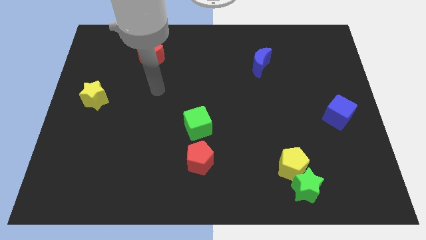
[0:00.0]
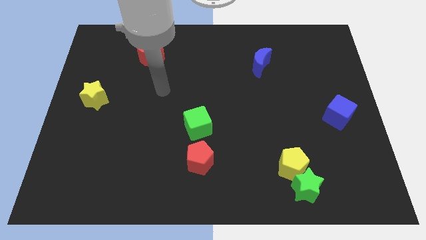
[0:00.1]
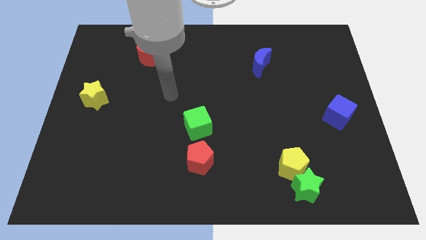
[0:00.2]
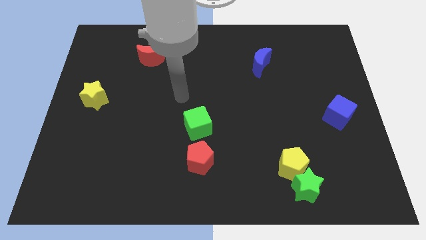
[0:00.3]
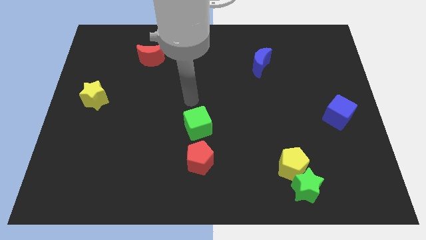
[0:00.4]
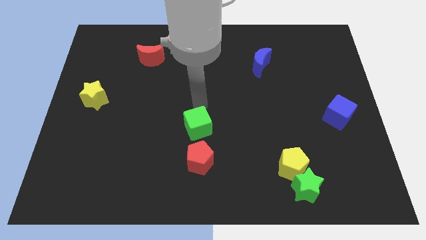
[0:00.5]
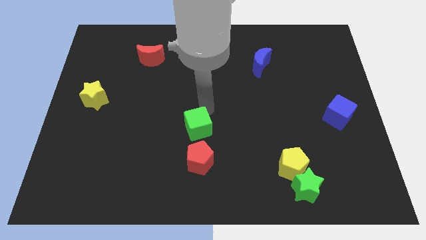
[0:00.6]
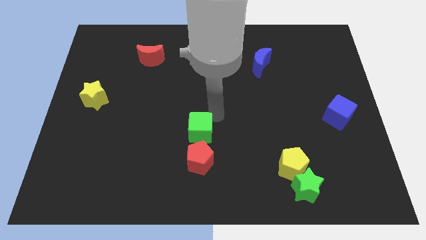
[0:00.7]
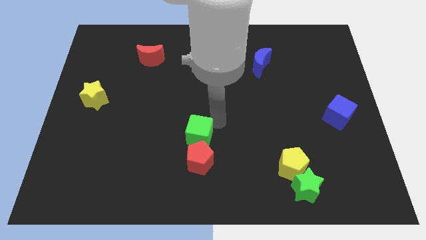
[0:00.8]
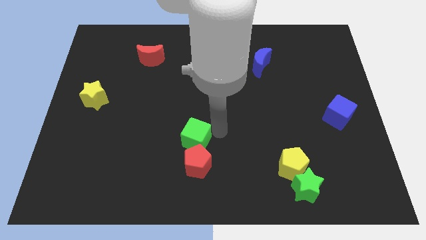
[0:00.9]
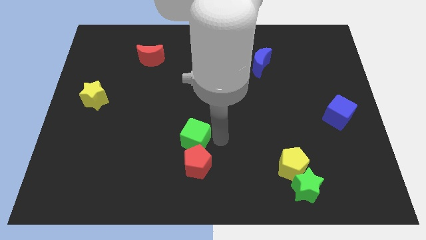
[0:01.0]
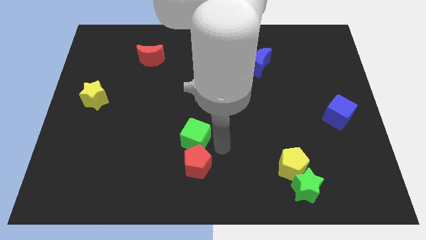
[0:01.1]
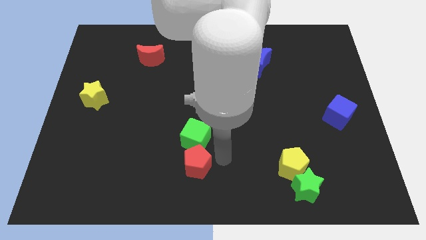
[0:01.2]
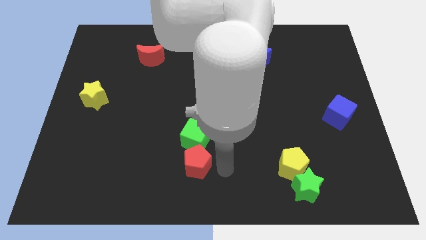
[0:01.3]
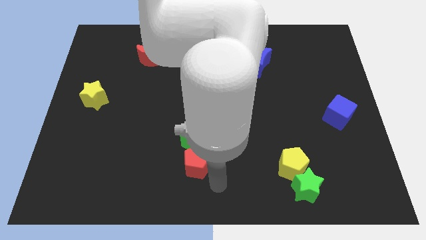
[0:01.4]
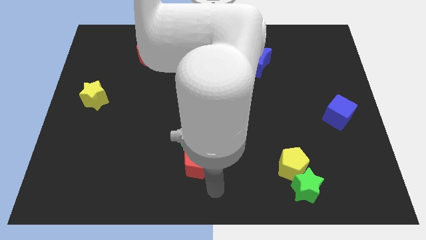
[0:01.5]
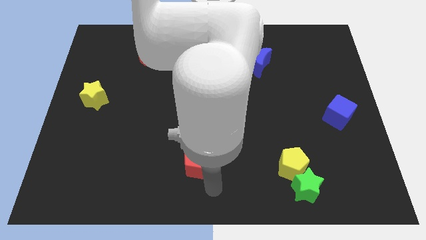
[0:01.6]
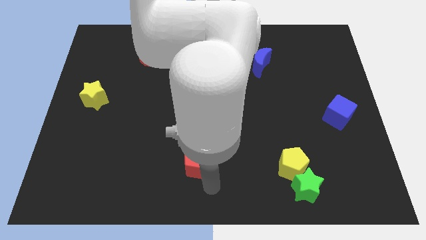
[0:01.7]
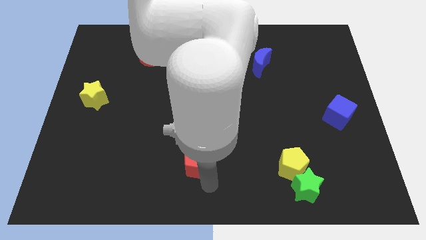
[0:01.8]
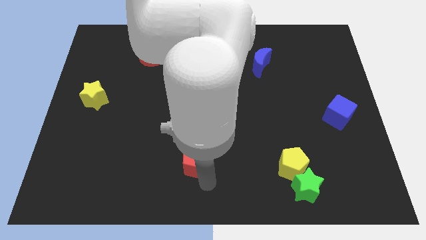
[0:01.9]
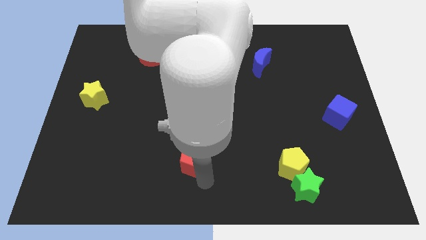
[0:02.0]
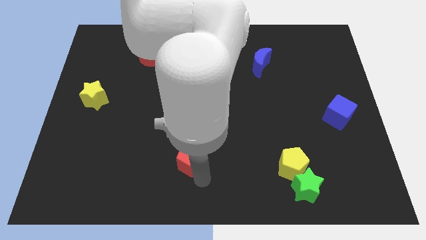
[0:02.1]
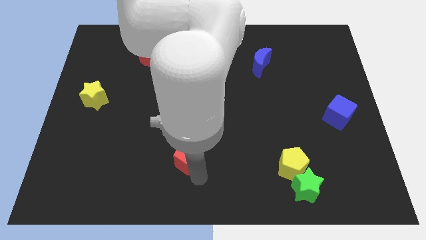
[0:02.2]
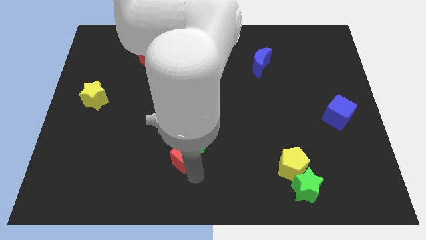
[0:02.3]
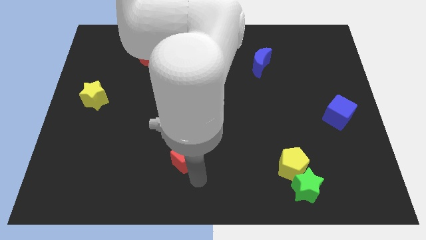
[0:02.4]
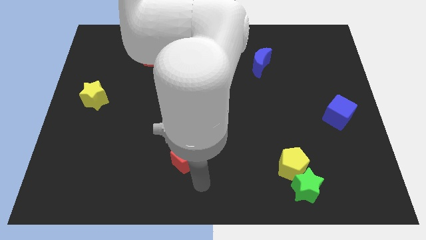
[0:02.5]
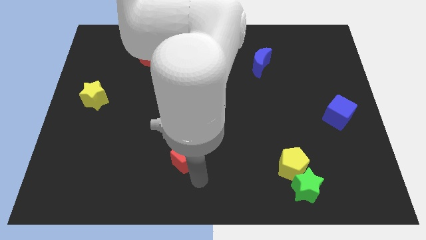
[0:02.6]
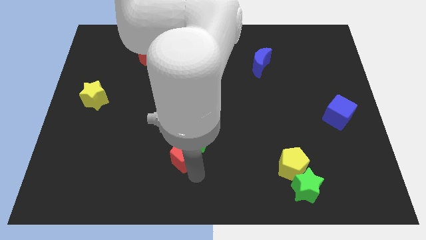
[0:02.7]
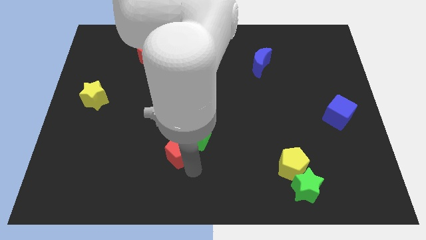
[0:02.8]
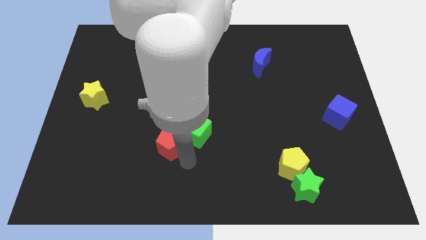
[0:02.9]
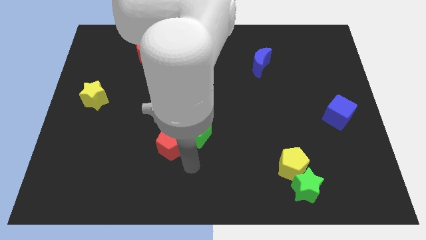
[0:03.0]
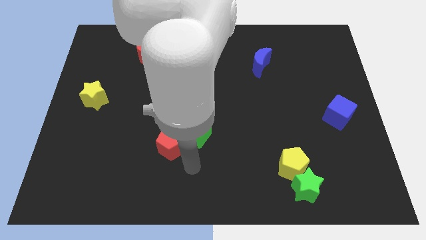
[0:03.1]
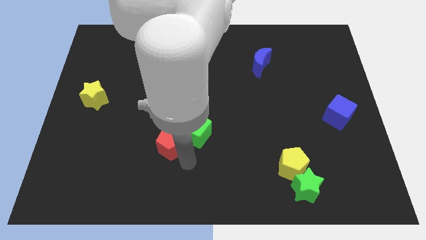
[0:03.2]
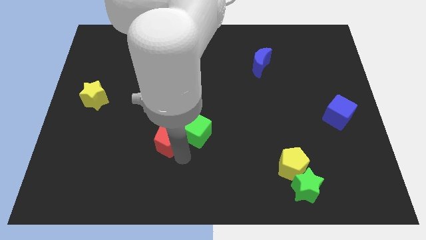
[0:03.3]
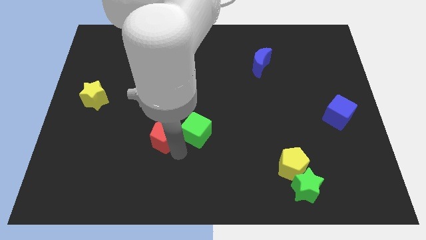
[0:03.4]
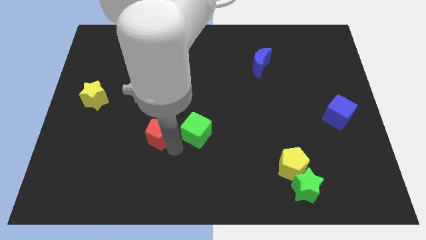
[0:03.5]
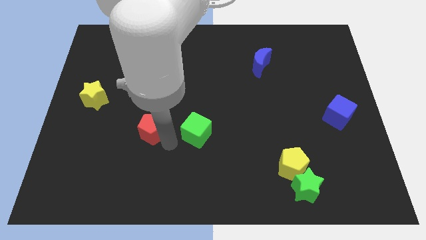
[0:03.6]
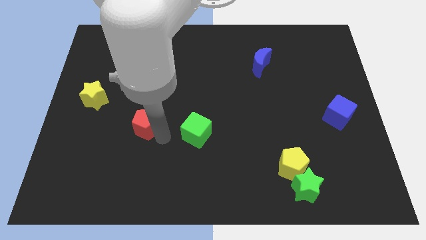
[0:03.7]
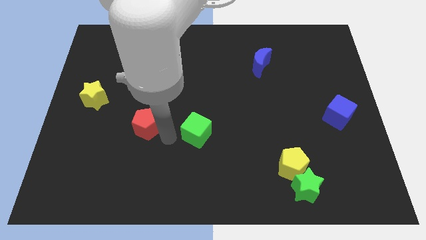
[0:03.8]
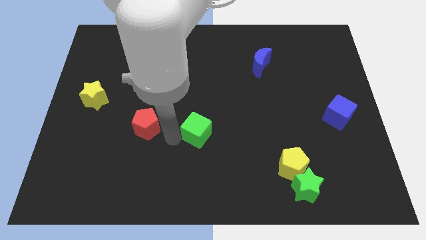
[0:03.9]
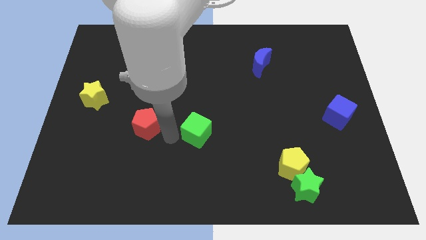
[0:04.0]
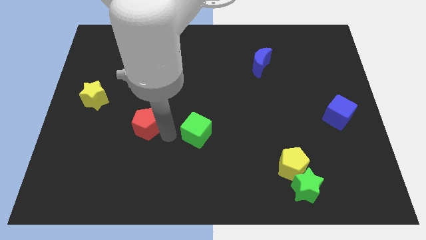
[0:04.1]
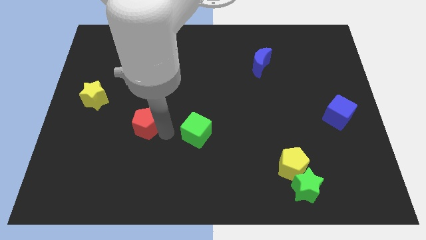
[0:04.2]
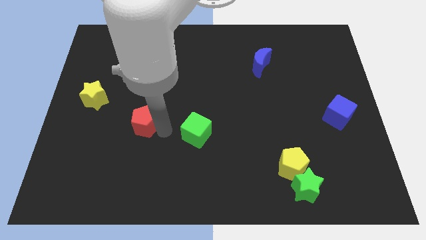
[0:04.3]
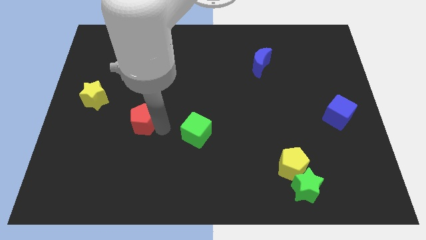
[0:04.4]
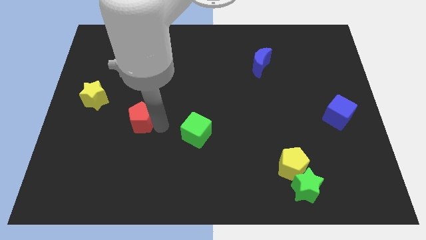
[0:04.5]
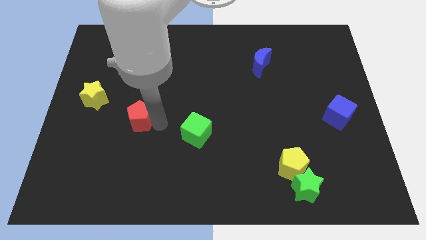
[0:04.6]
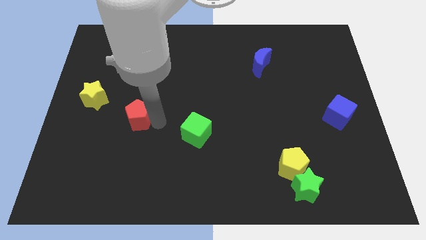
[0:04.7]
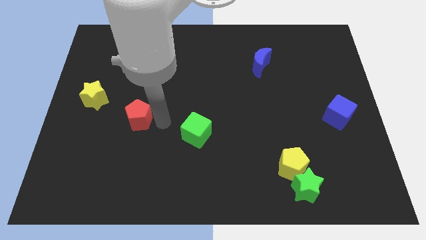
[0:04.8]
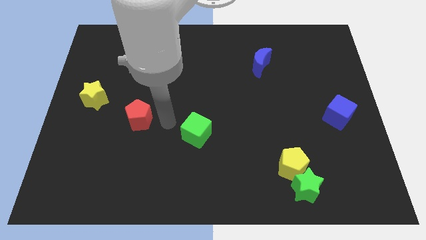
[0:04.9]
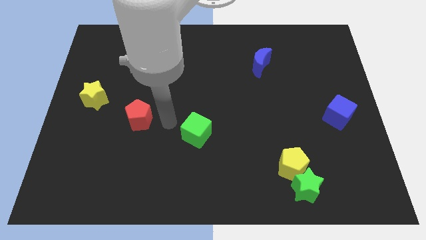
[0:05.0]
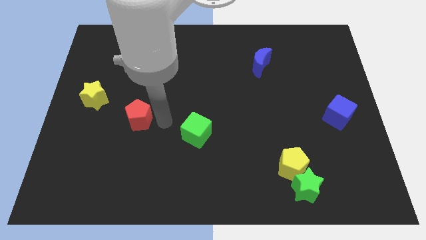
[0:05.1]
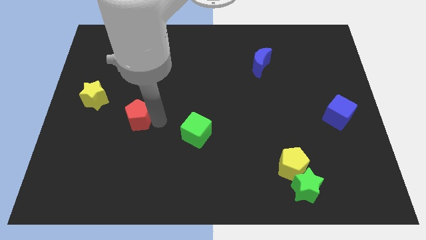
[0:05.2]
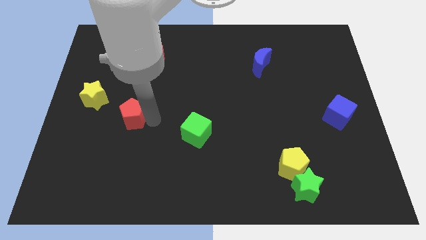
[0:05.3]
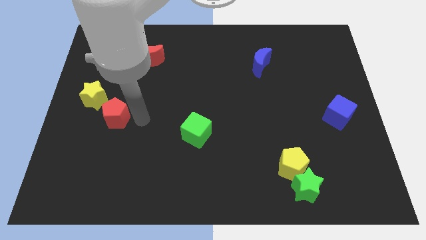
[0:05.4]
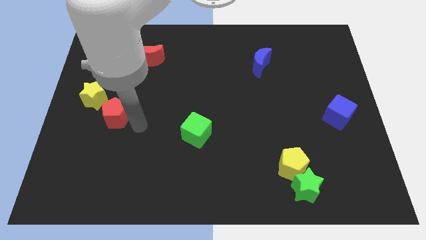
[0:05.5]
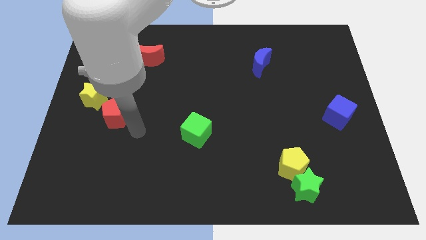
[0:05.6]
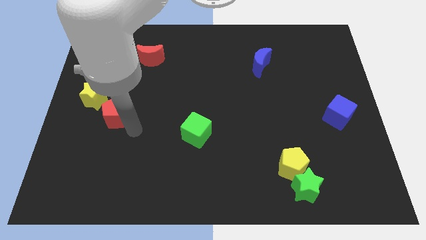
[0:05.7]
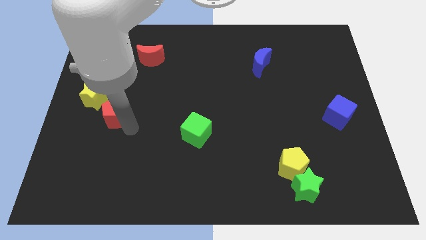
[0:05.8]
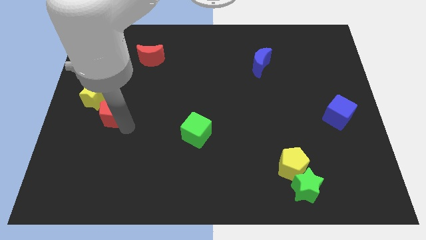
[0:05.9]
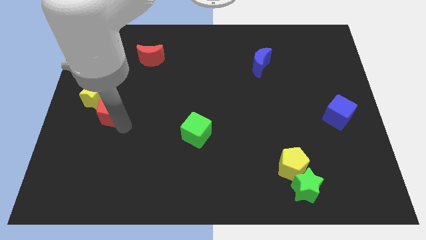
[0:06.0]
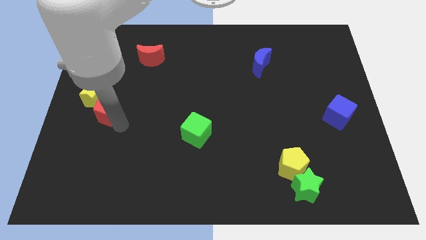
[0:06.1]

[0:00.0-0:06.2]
put the red pentagon next to the yellow star

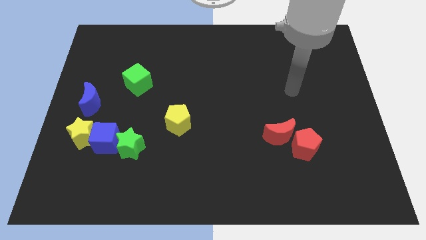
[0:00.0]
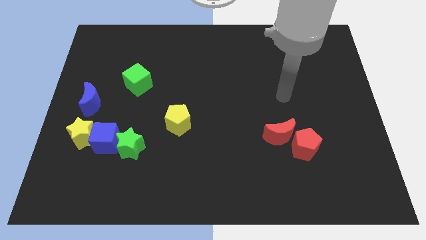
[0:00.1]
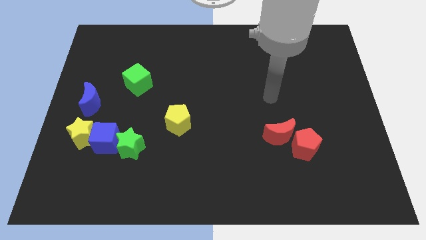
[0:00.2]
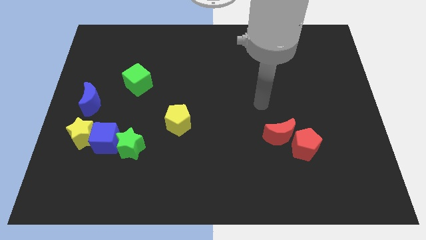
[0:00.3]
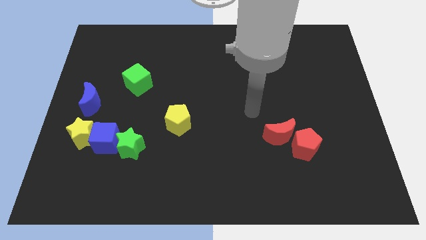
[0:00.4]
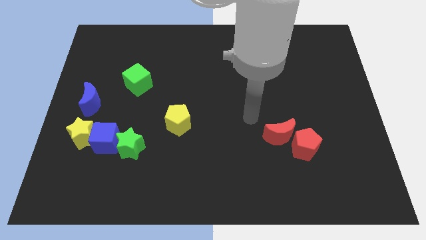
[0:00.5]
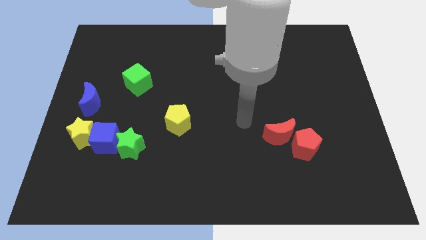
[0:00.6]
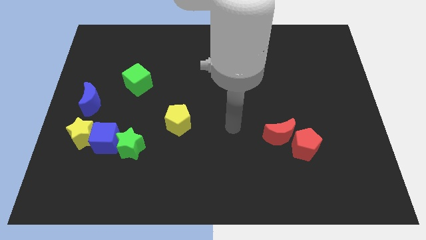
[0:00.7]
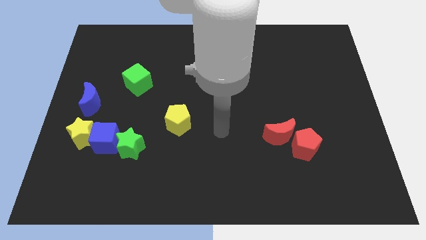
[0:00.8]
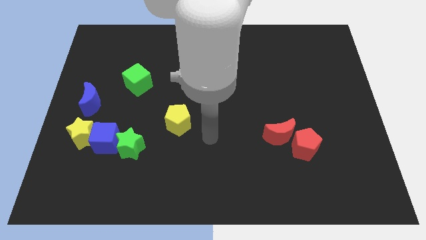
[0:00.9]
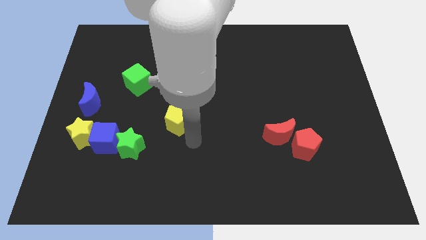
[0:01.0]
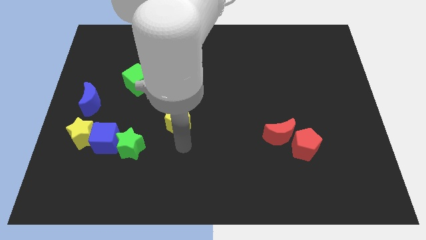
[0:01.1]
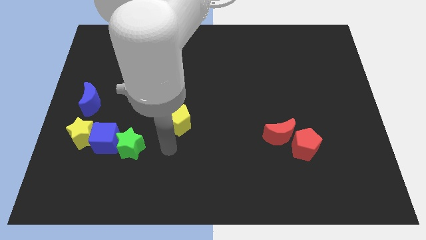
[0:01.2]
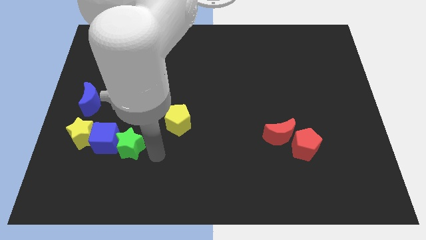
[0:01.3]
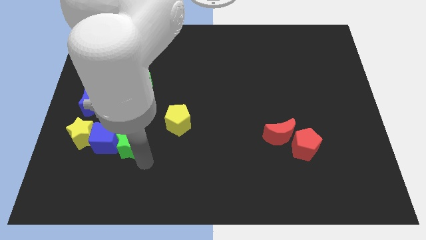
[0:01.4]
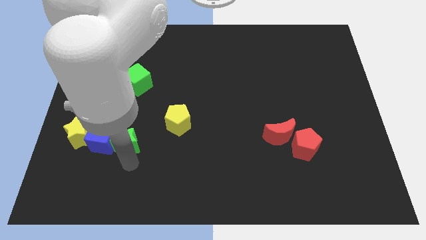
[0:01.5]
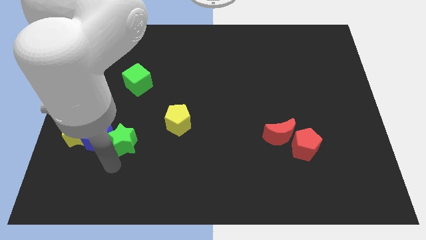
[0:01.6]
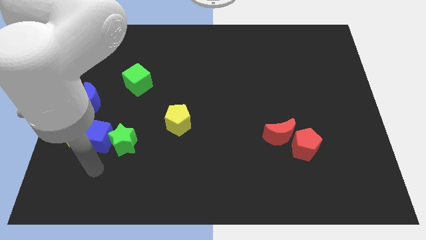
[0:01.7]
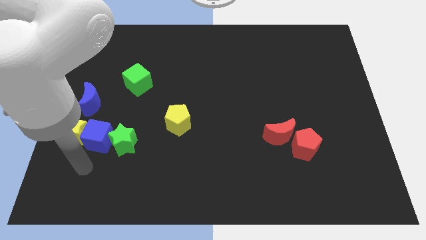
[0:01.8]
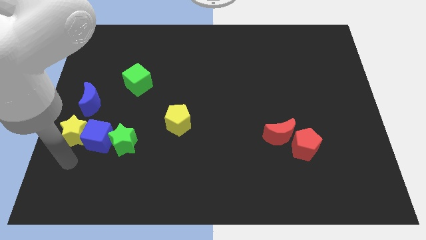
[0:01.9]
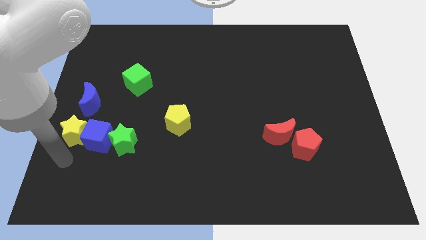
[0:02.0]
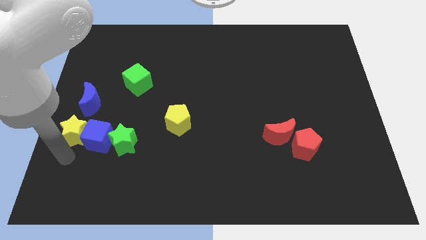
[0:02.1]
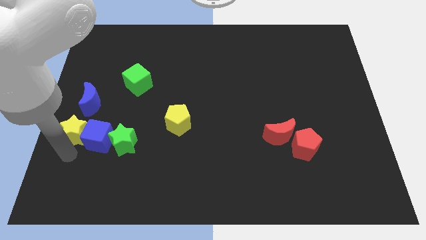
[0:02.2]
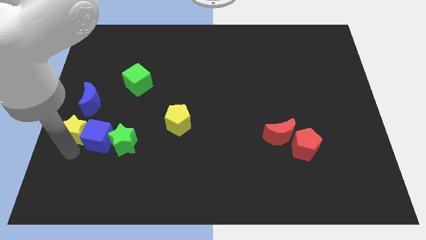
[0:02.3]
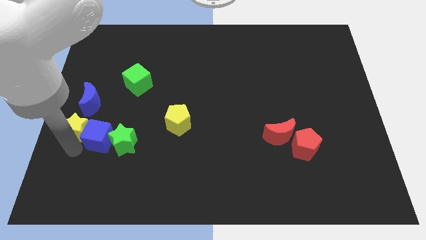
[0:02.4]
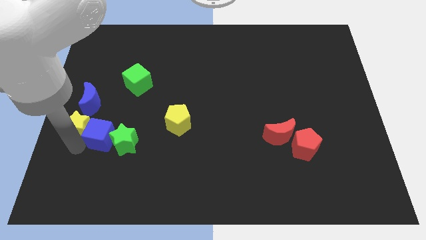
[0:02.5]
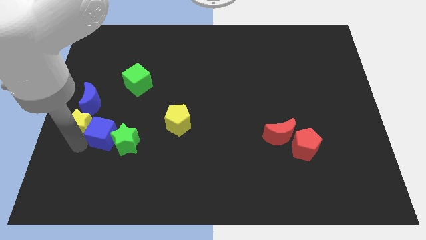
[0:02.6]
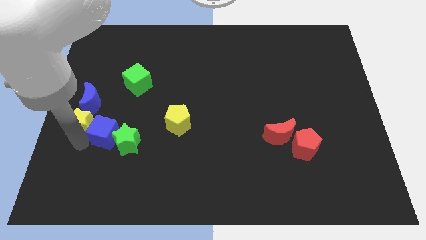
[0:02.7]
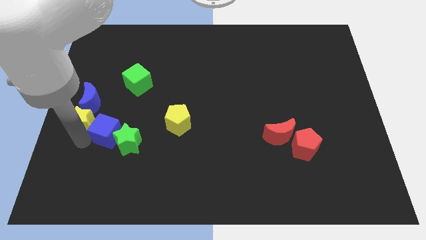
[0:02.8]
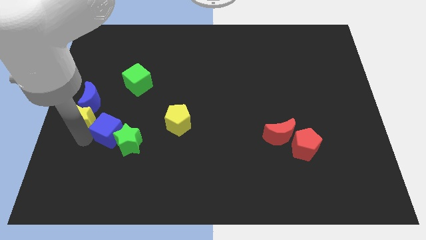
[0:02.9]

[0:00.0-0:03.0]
move the yellow star to the blue moon
